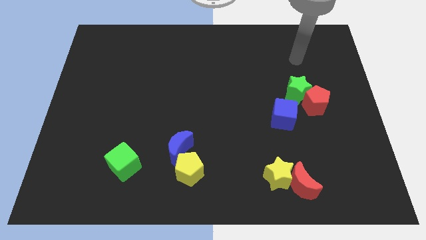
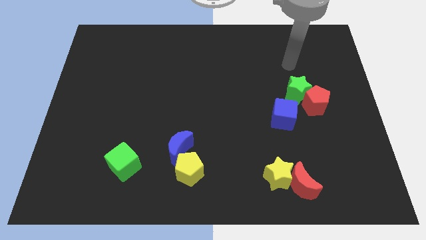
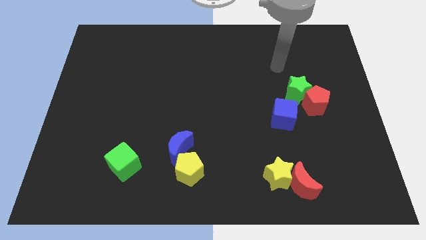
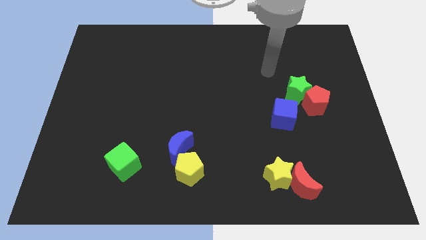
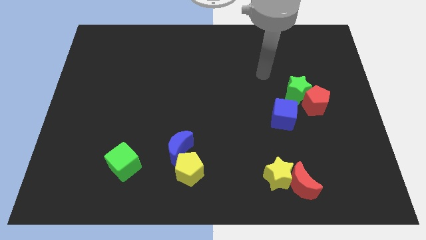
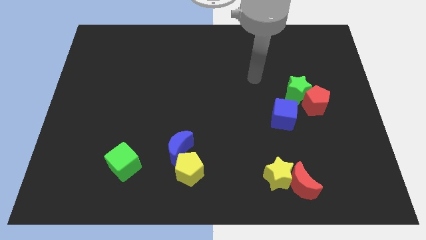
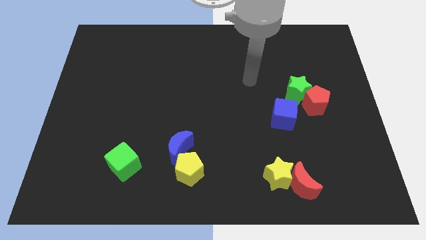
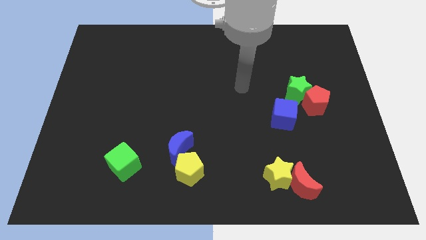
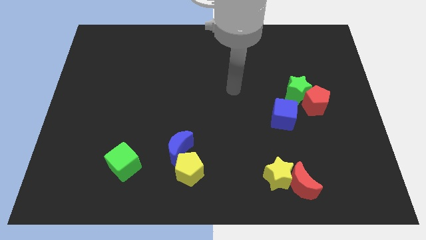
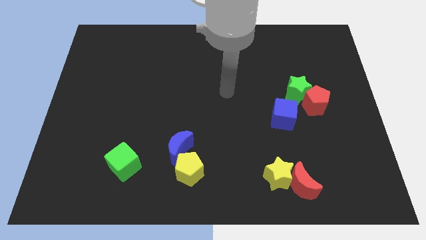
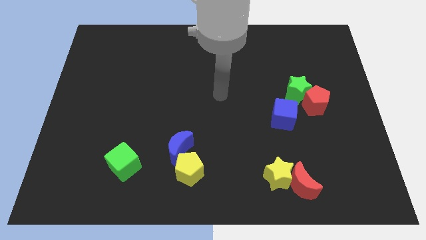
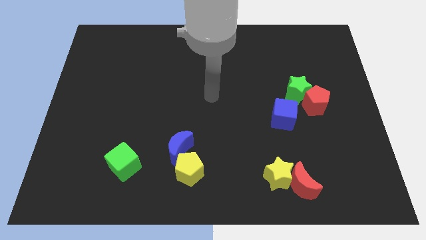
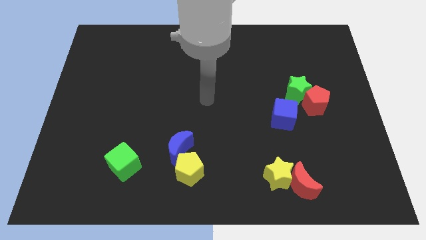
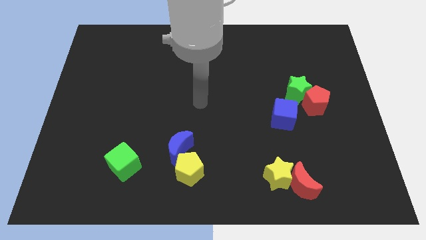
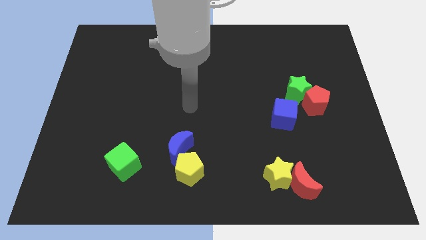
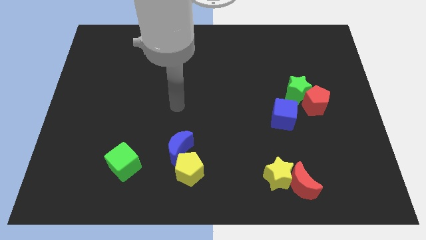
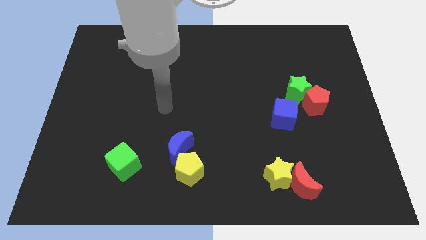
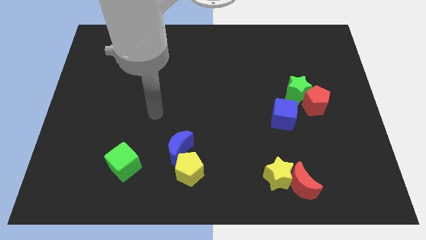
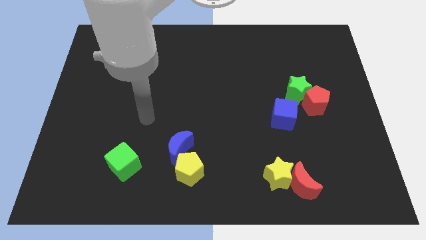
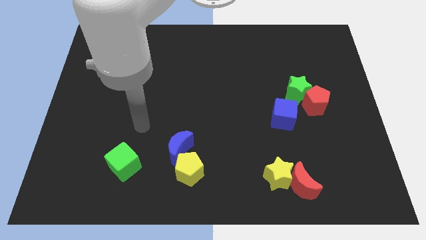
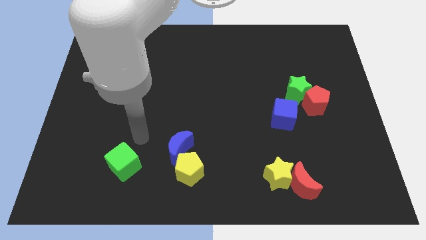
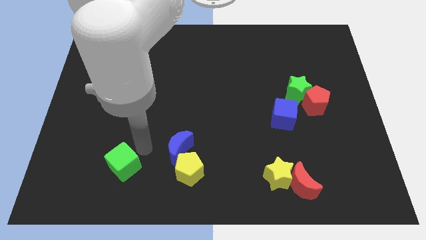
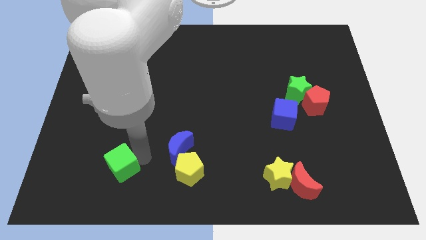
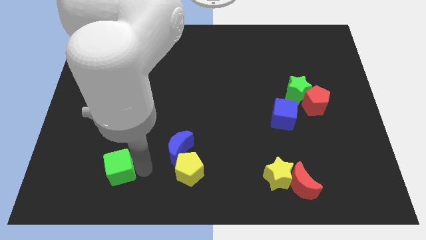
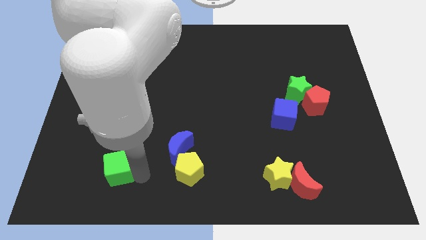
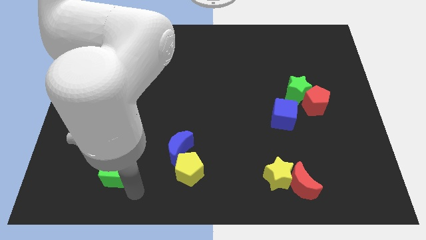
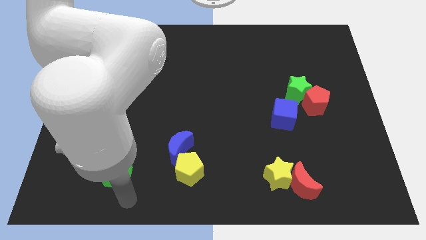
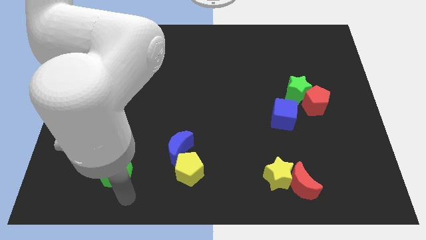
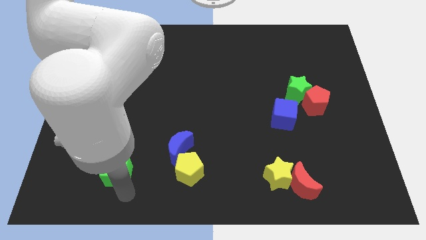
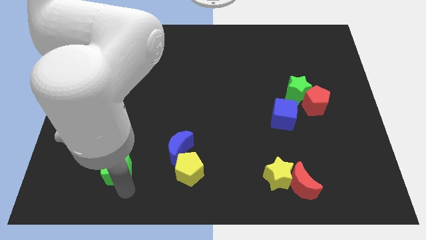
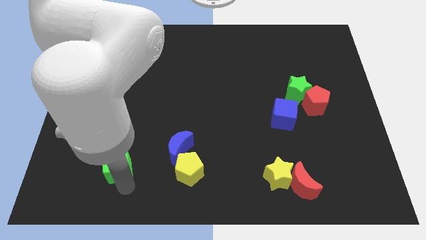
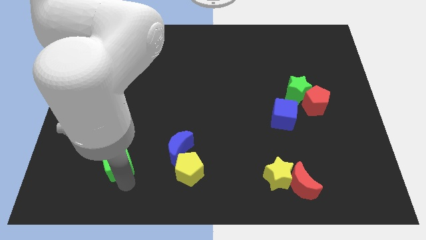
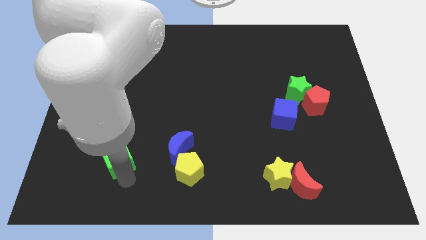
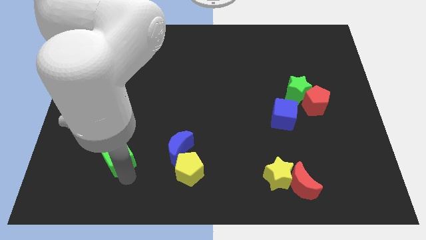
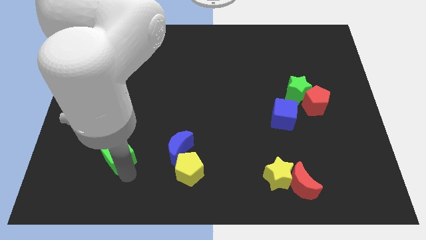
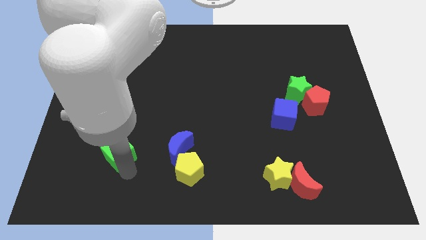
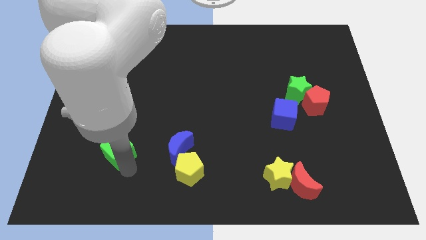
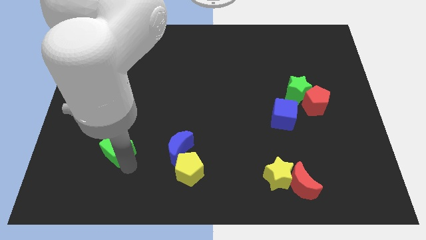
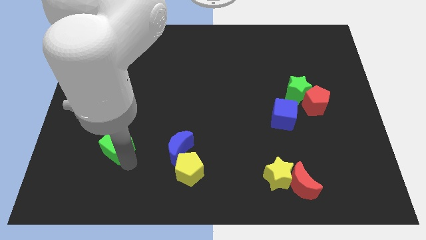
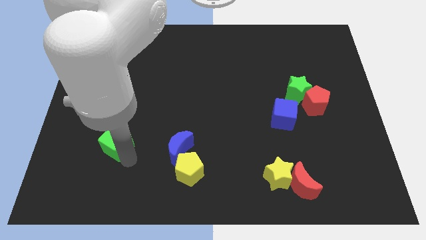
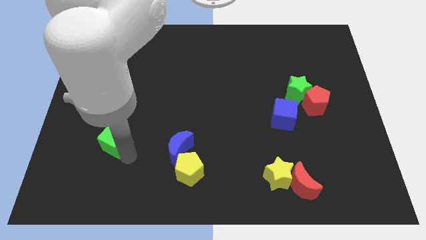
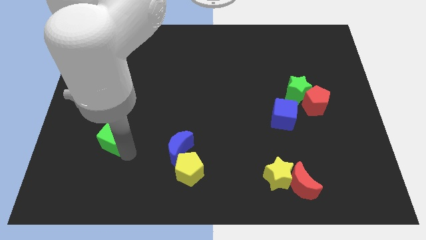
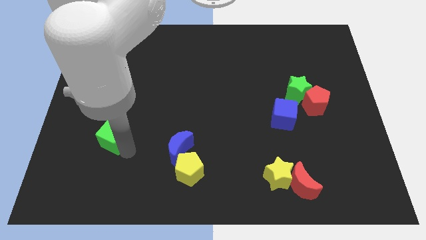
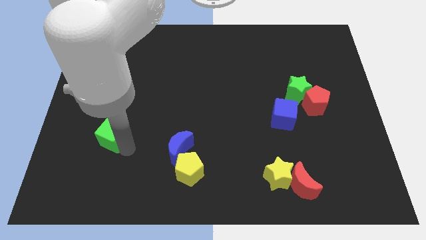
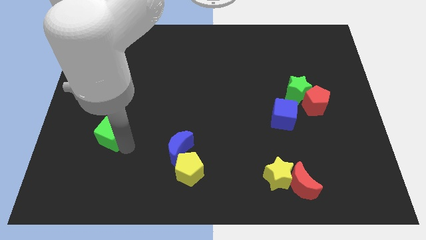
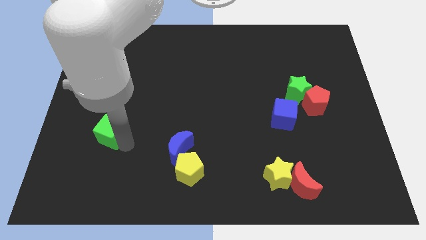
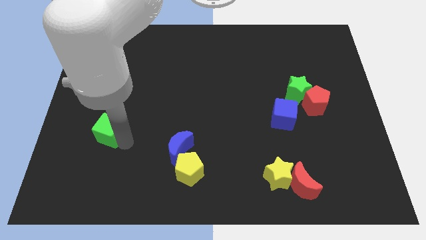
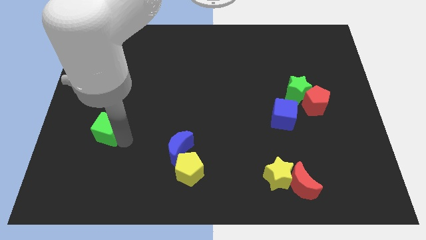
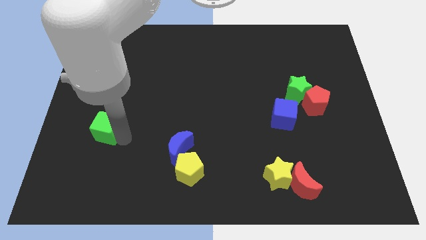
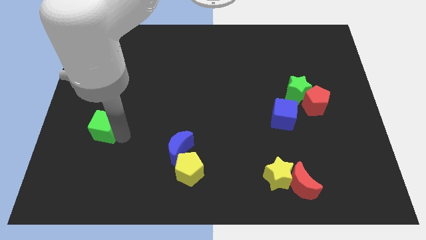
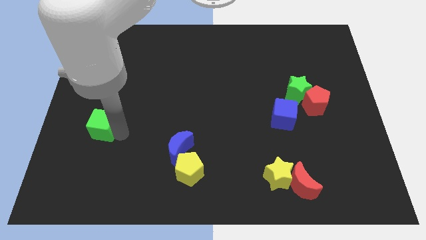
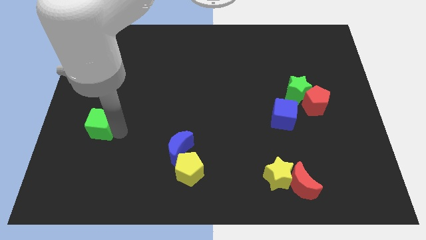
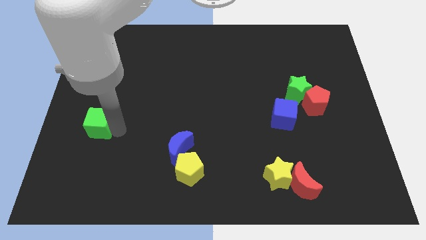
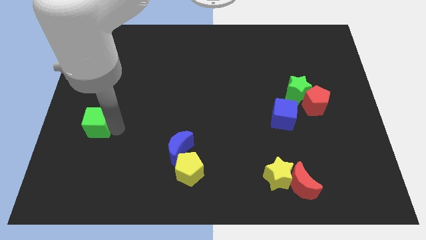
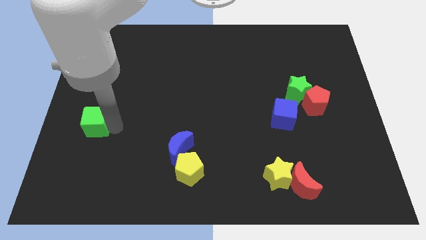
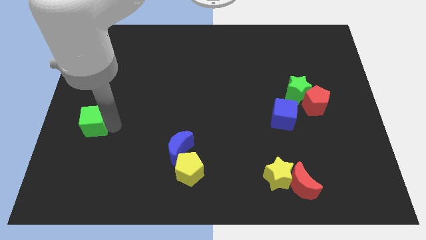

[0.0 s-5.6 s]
put the green cube to the center left

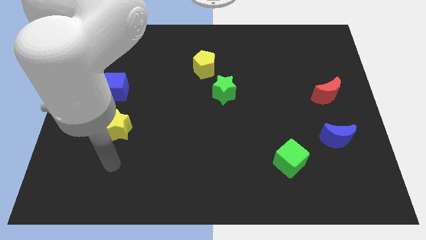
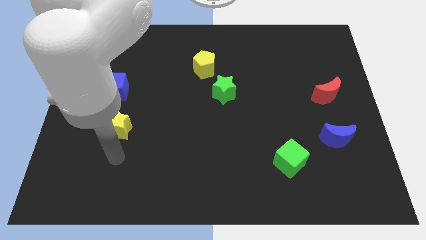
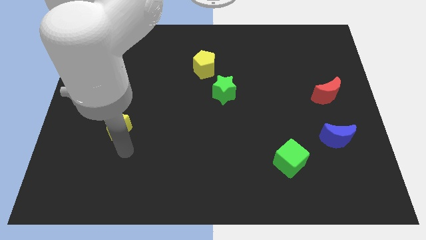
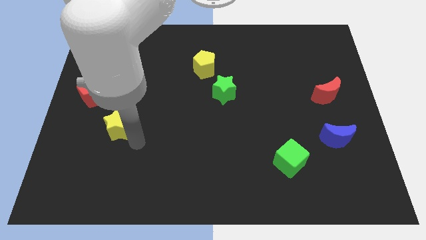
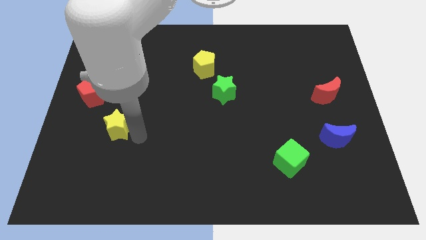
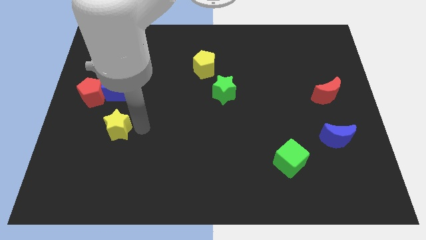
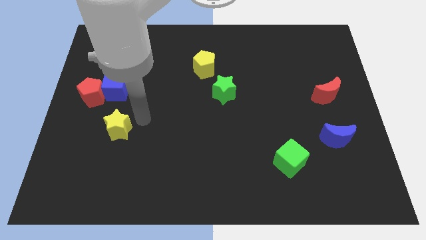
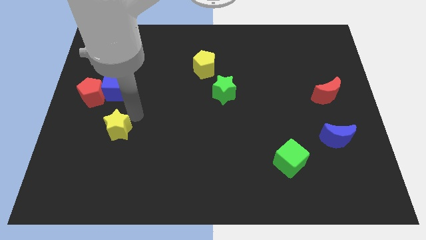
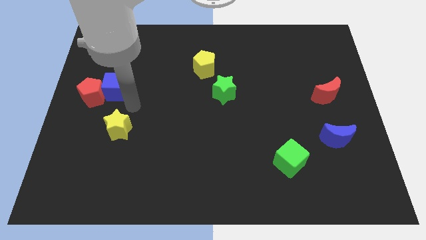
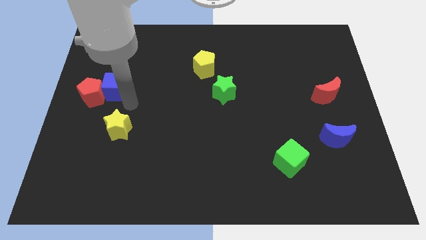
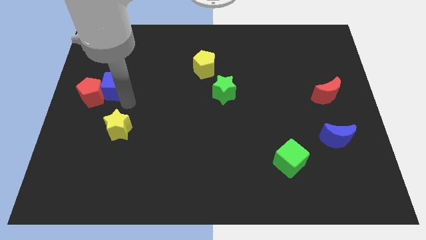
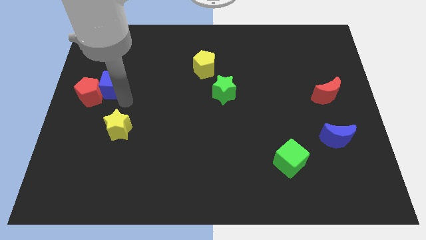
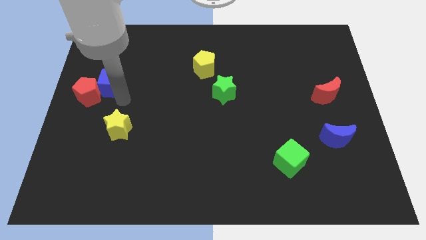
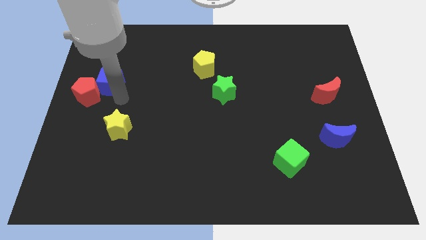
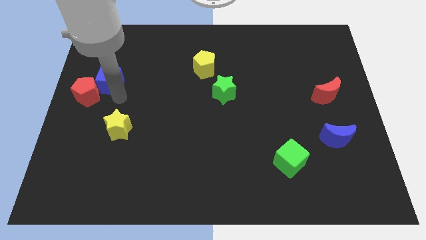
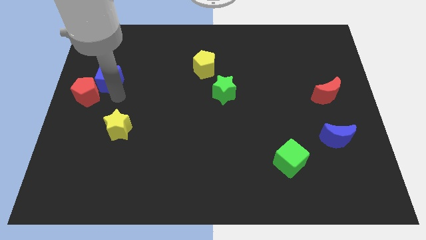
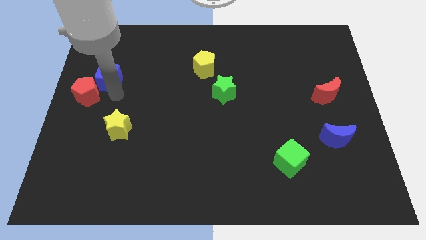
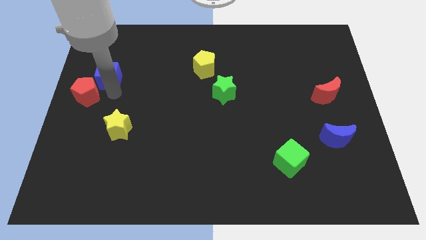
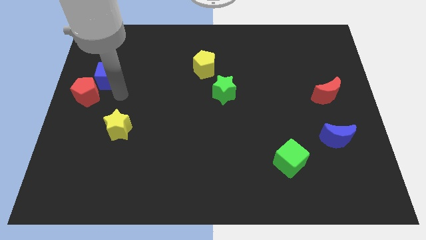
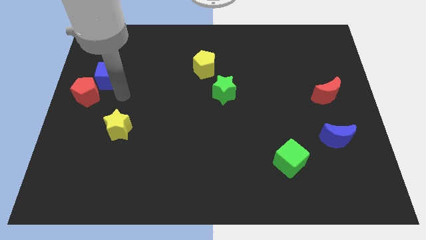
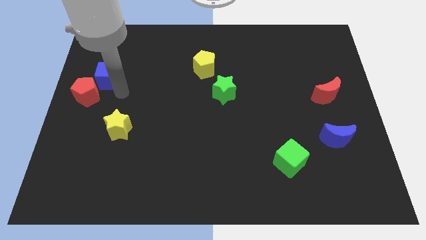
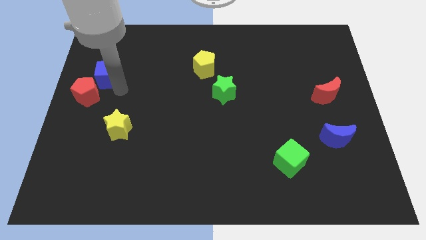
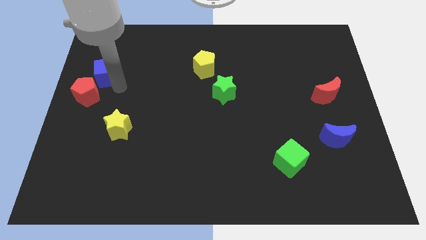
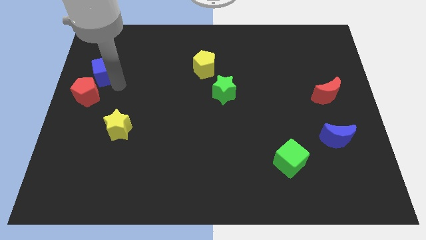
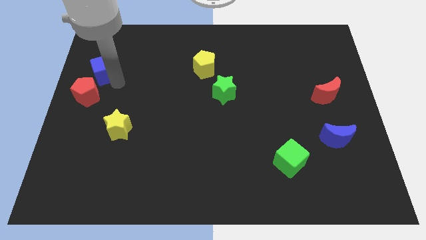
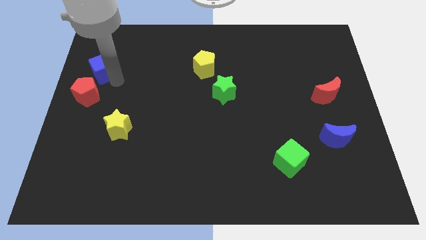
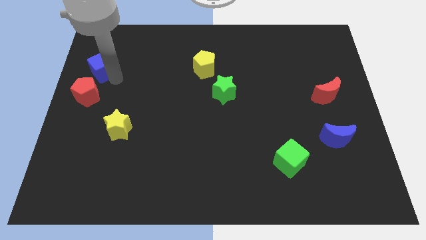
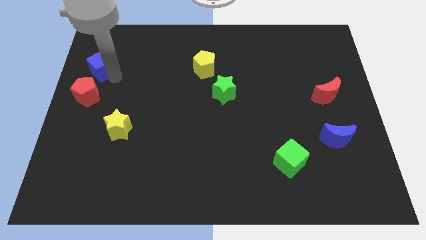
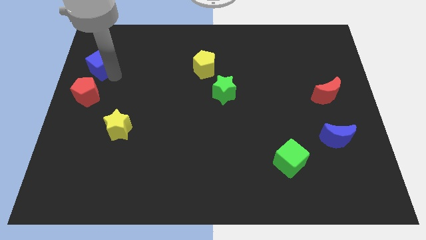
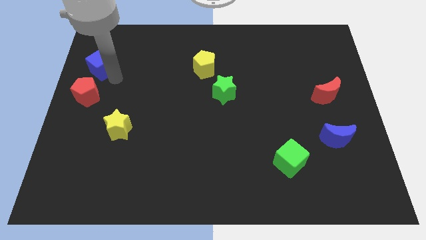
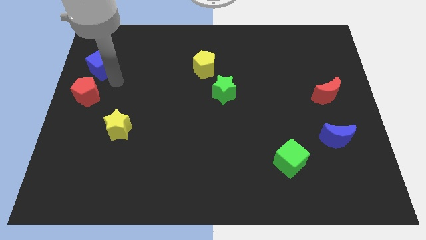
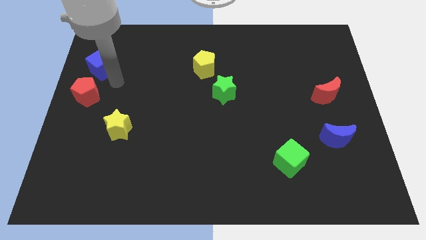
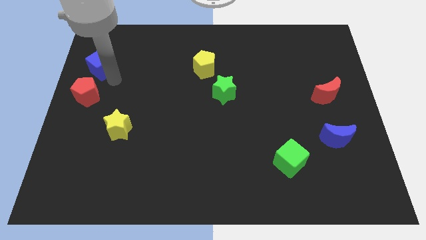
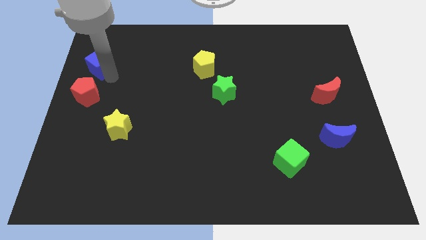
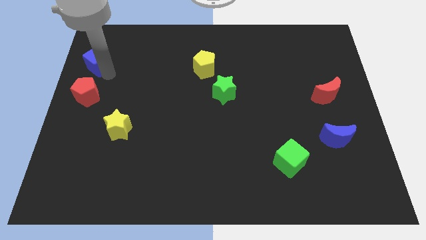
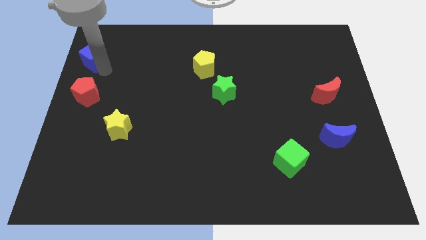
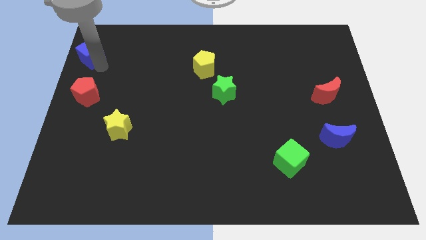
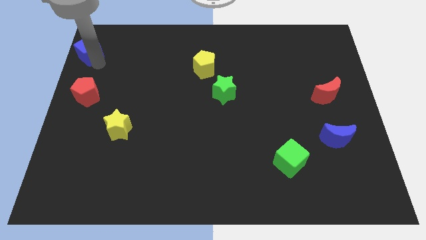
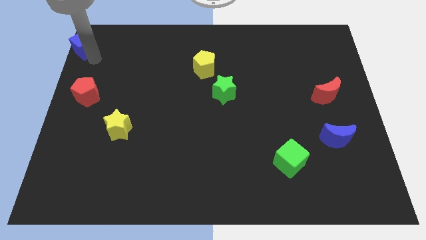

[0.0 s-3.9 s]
put the blue cube to the top left of the board
